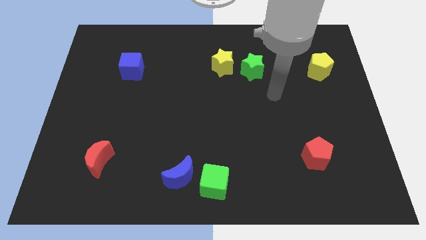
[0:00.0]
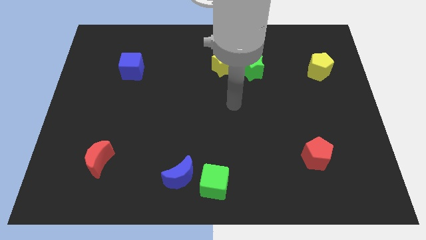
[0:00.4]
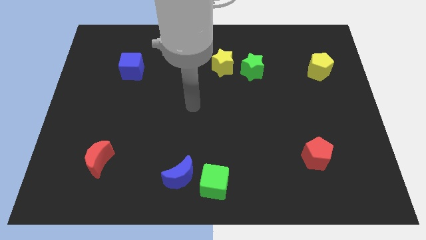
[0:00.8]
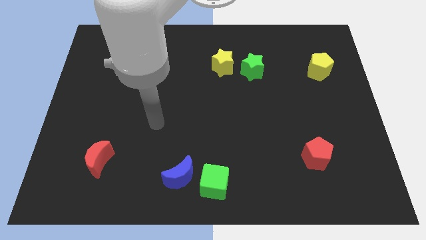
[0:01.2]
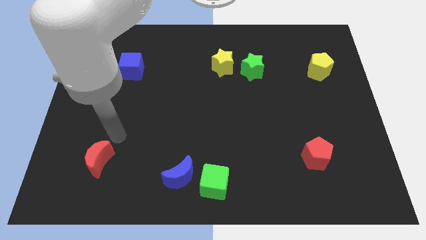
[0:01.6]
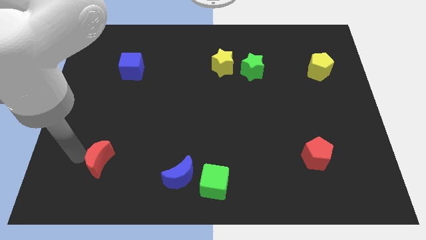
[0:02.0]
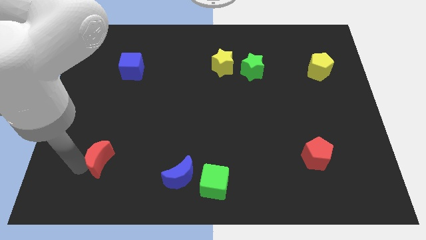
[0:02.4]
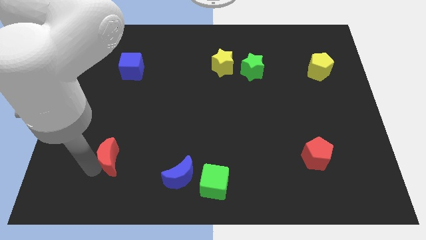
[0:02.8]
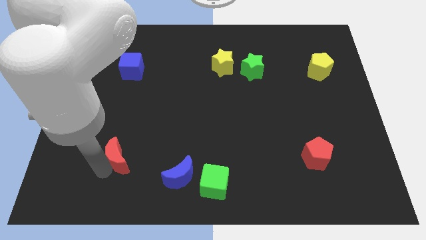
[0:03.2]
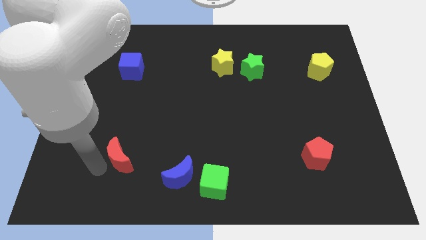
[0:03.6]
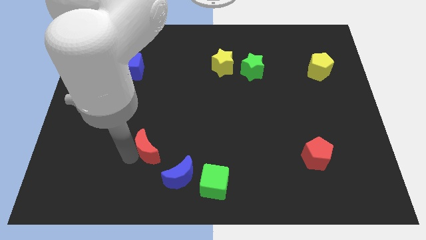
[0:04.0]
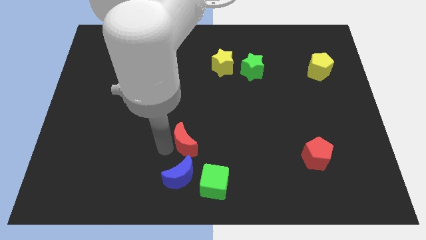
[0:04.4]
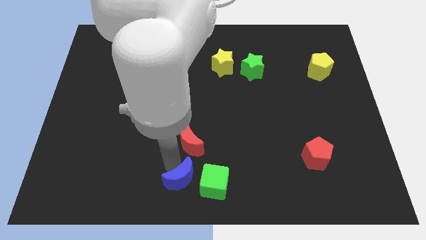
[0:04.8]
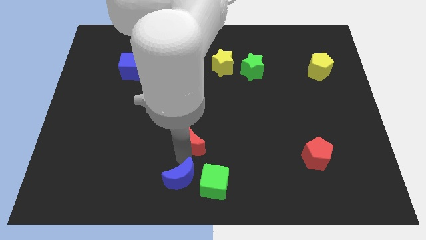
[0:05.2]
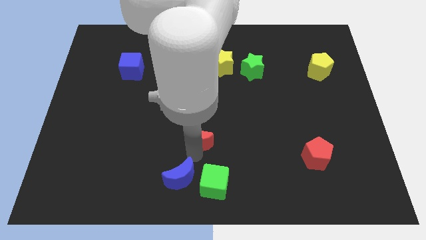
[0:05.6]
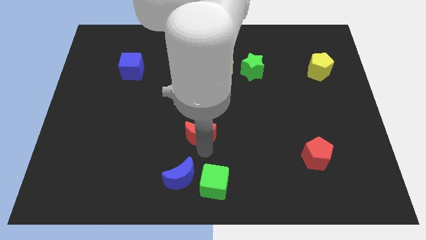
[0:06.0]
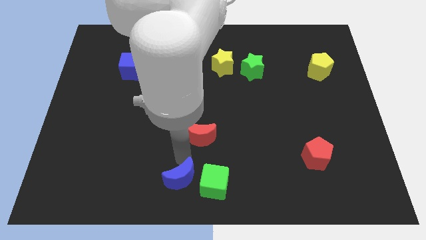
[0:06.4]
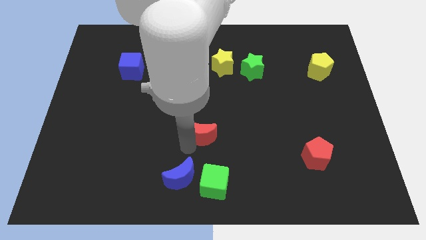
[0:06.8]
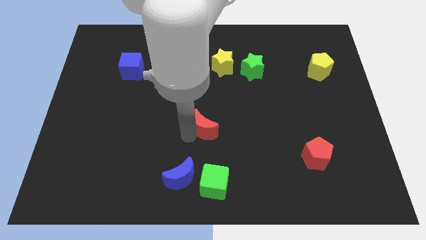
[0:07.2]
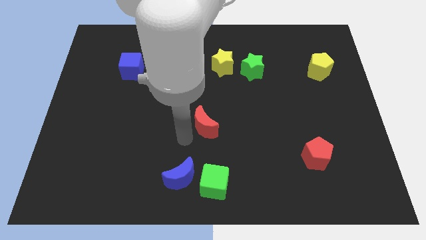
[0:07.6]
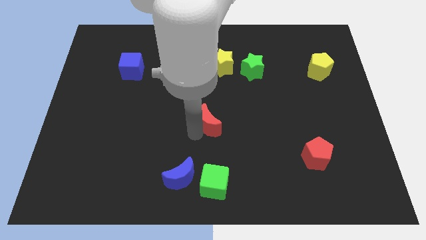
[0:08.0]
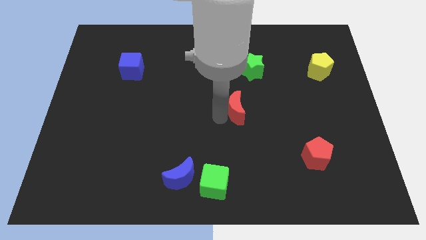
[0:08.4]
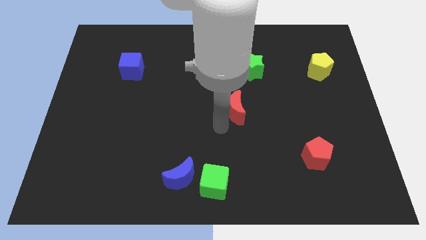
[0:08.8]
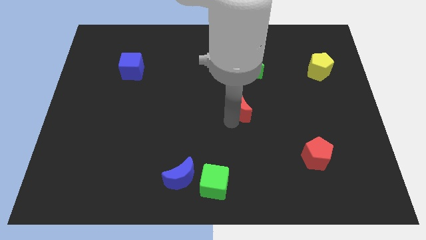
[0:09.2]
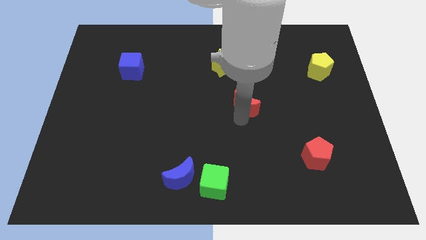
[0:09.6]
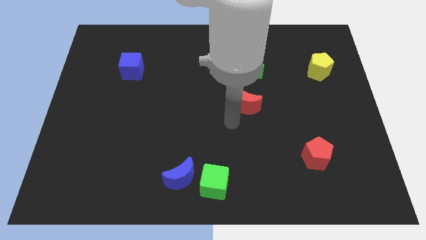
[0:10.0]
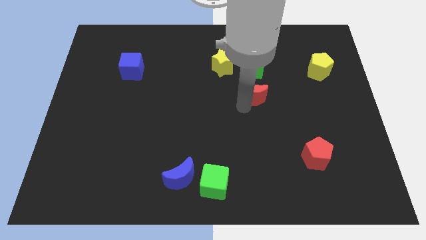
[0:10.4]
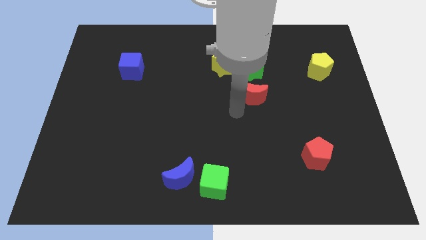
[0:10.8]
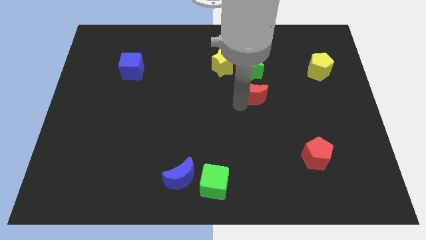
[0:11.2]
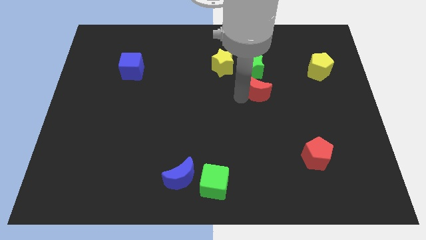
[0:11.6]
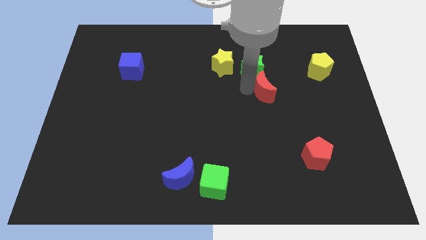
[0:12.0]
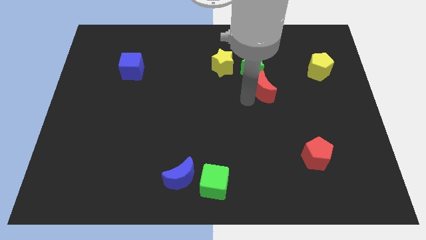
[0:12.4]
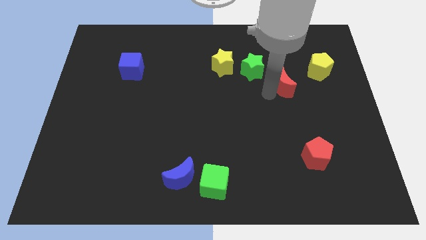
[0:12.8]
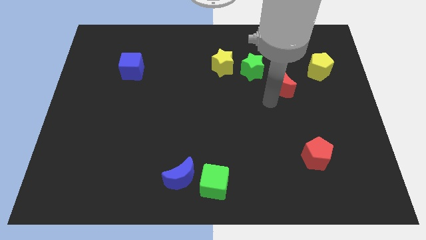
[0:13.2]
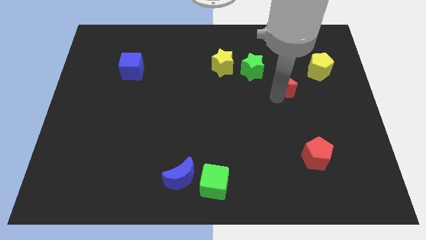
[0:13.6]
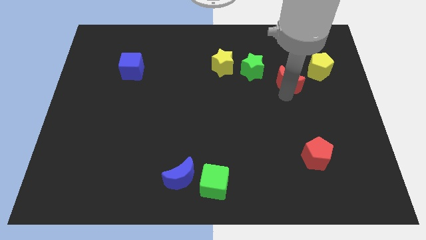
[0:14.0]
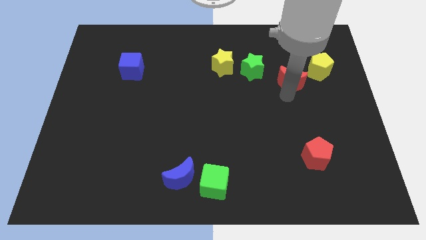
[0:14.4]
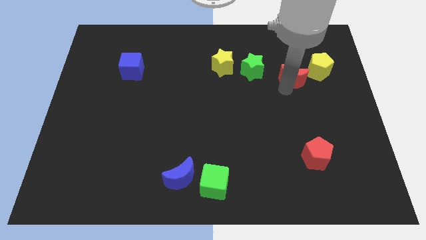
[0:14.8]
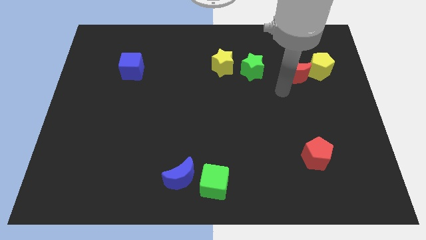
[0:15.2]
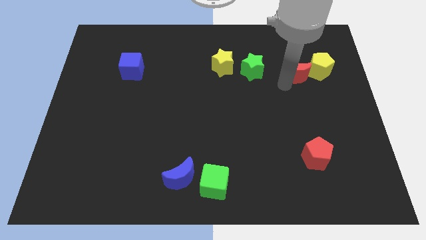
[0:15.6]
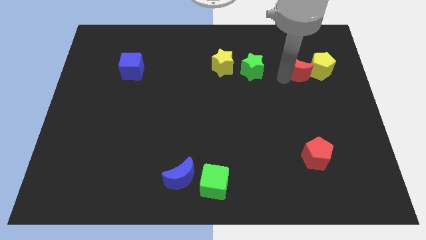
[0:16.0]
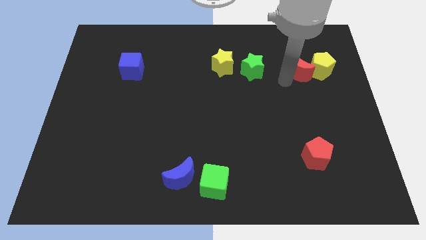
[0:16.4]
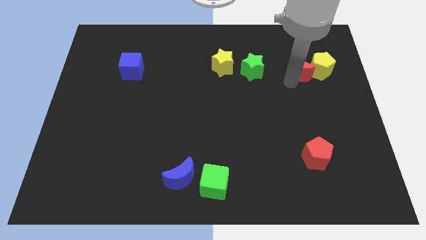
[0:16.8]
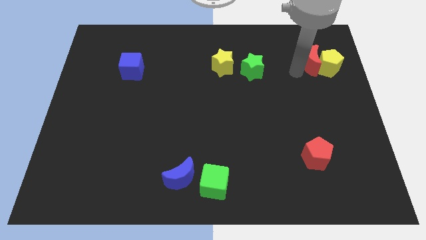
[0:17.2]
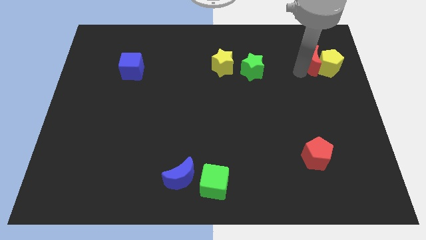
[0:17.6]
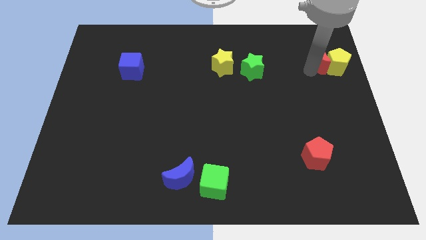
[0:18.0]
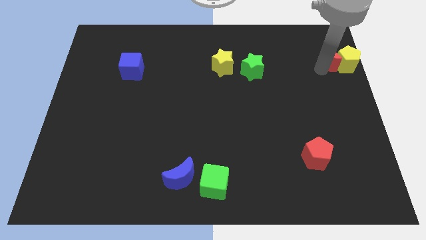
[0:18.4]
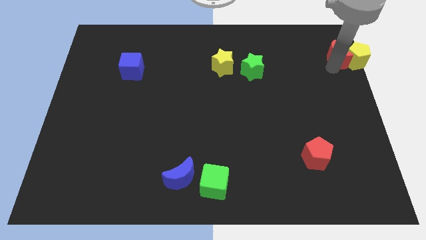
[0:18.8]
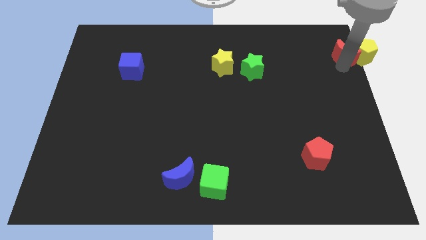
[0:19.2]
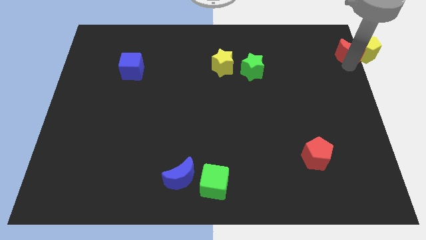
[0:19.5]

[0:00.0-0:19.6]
push the red moon to the top right corner

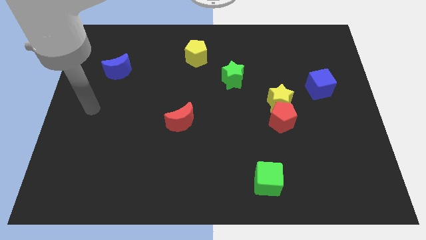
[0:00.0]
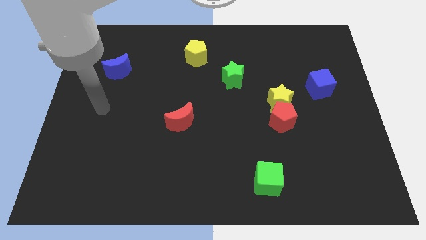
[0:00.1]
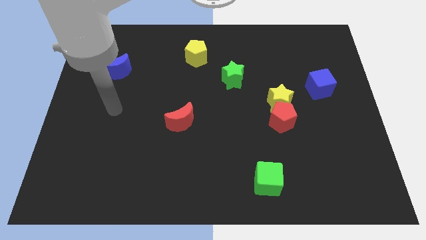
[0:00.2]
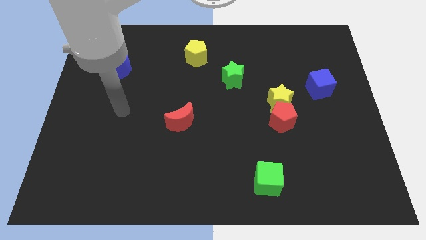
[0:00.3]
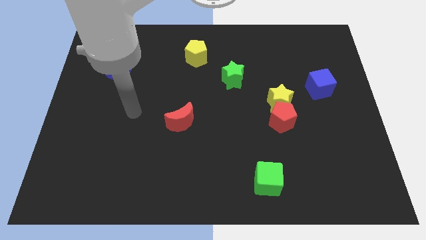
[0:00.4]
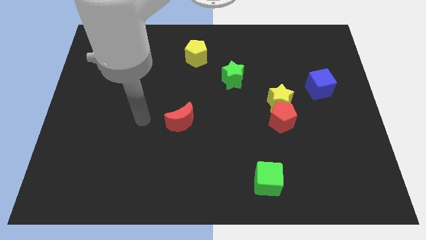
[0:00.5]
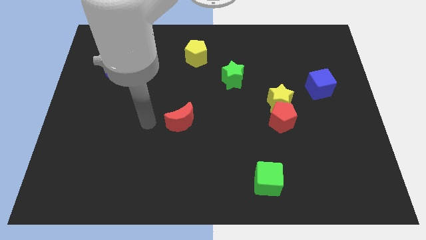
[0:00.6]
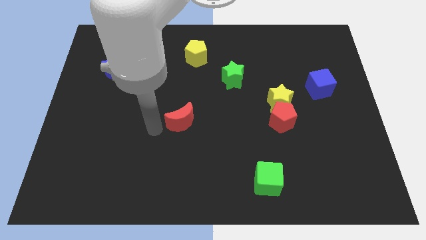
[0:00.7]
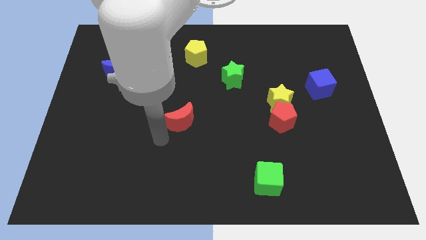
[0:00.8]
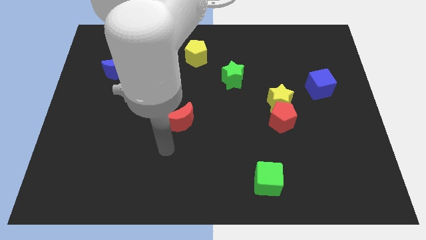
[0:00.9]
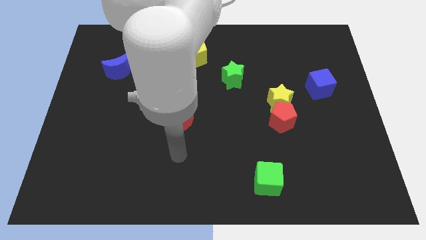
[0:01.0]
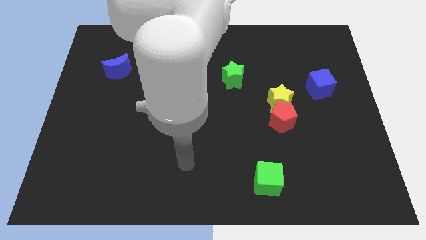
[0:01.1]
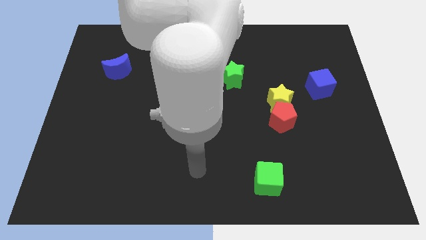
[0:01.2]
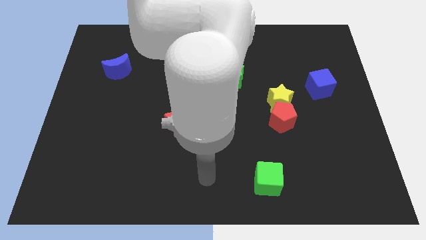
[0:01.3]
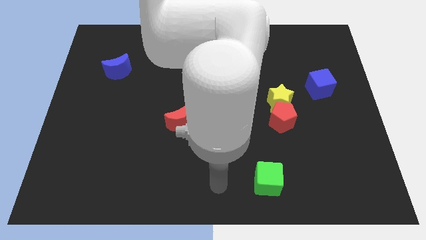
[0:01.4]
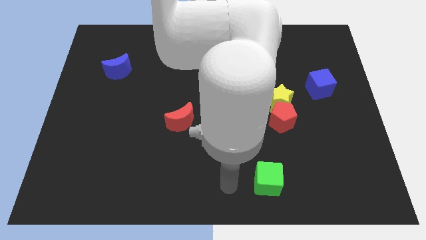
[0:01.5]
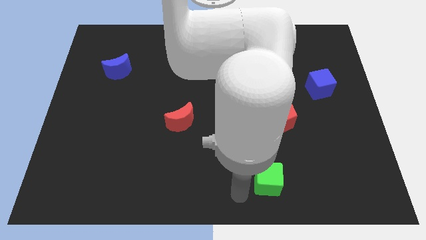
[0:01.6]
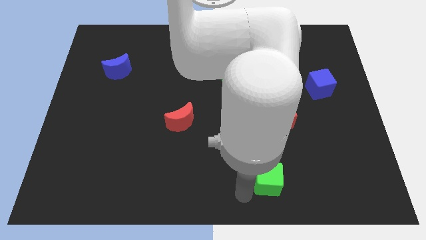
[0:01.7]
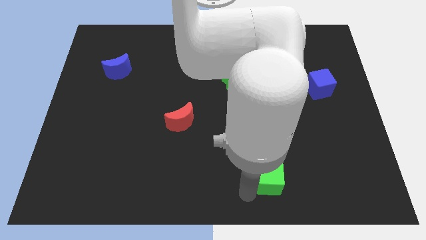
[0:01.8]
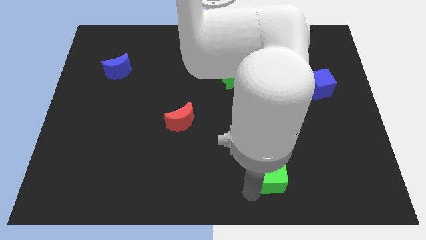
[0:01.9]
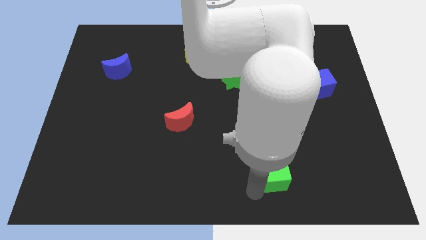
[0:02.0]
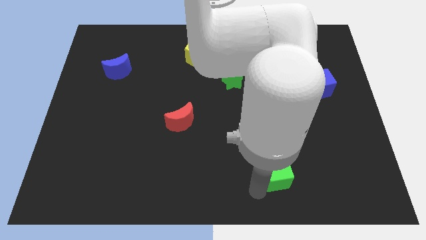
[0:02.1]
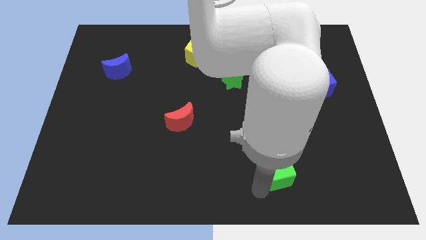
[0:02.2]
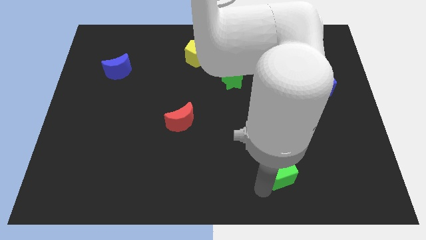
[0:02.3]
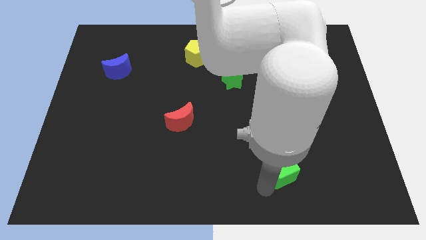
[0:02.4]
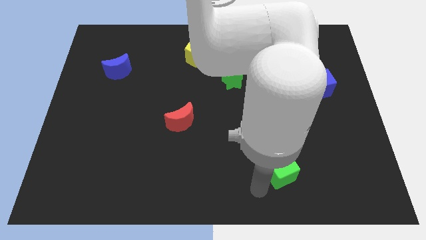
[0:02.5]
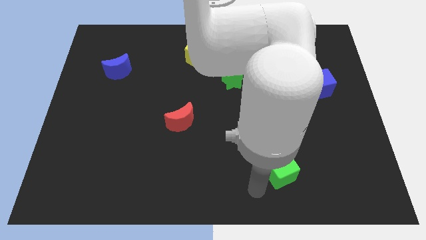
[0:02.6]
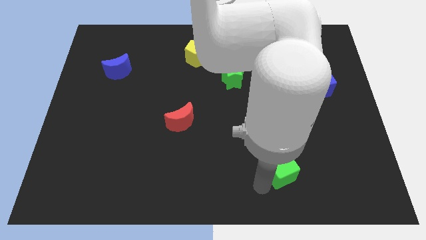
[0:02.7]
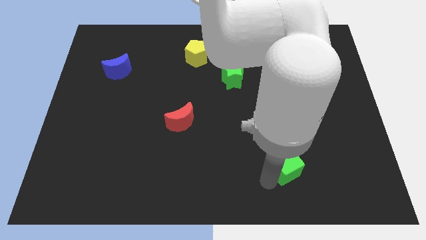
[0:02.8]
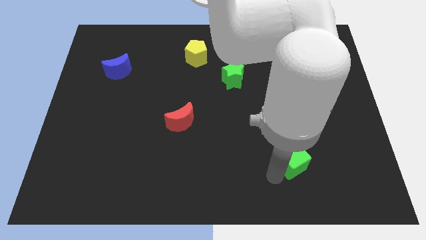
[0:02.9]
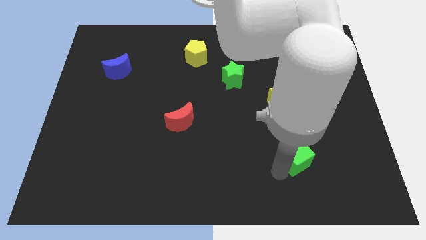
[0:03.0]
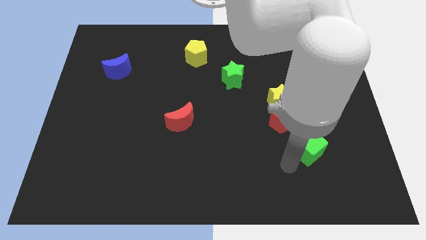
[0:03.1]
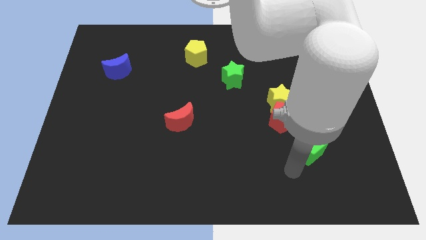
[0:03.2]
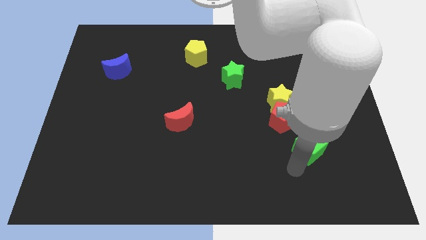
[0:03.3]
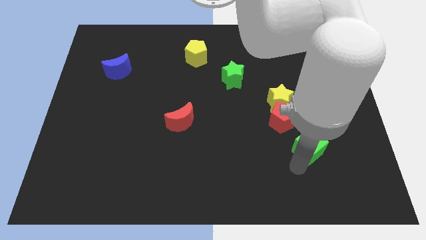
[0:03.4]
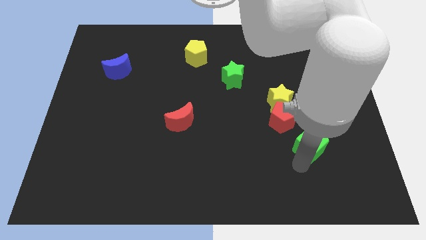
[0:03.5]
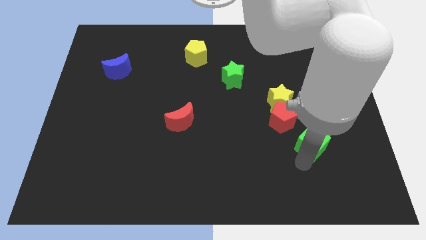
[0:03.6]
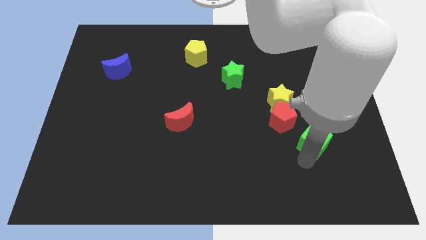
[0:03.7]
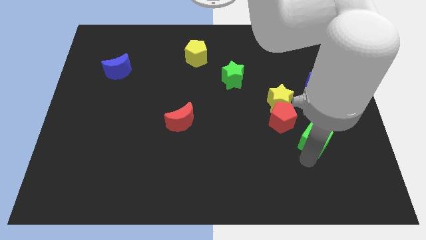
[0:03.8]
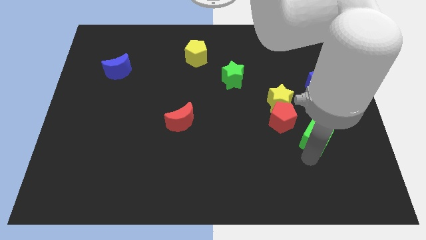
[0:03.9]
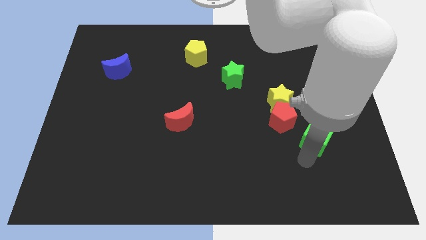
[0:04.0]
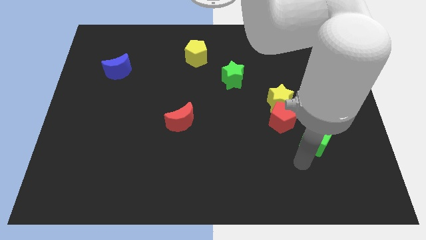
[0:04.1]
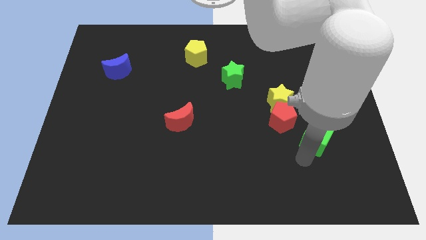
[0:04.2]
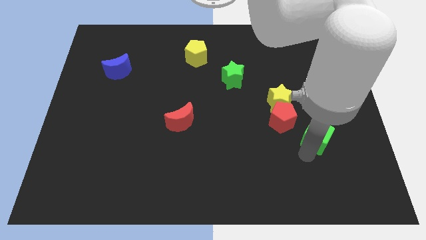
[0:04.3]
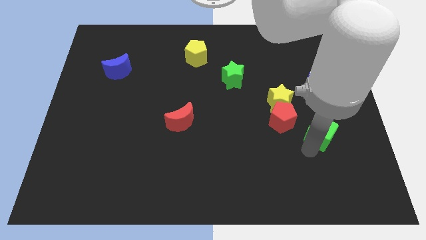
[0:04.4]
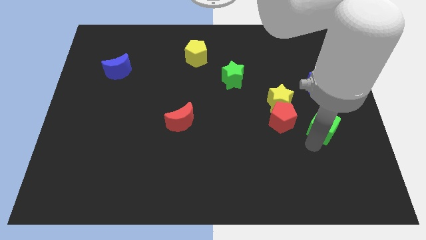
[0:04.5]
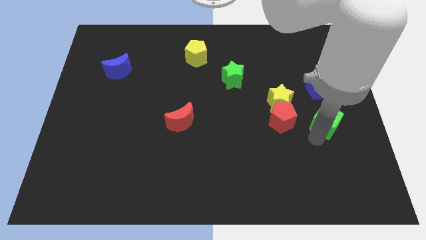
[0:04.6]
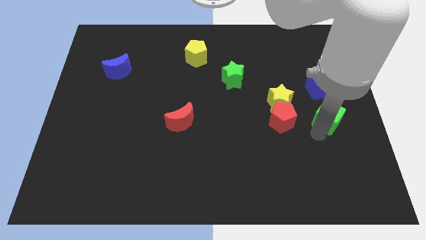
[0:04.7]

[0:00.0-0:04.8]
move the green cube to the center right
